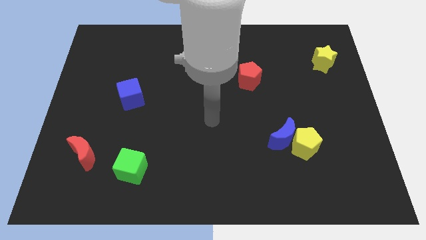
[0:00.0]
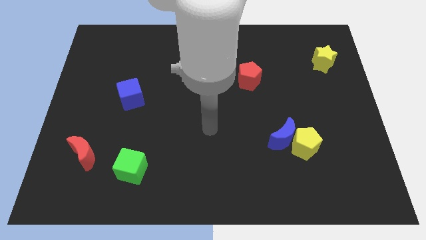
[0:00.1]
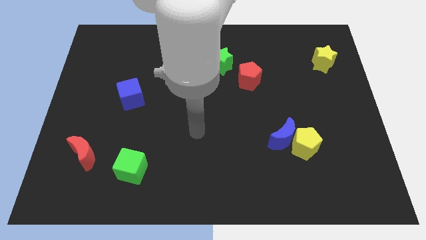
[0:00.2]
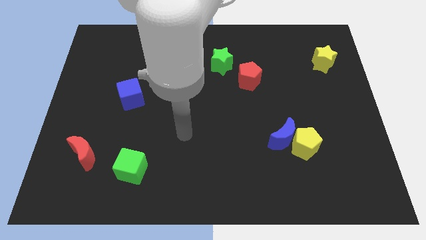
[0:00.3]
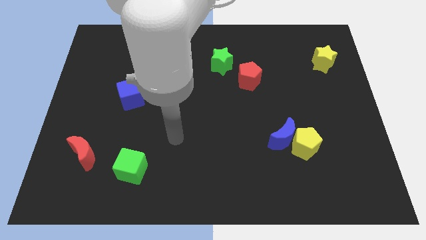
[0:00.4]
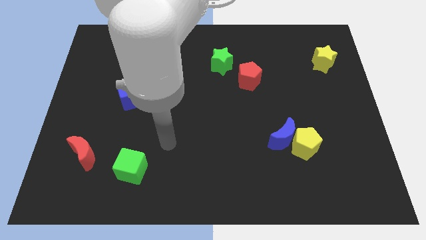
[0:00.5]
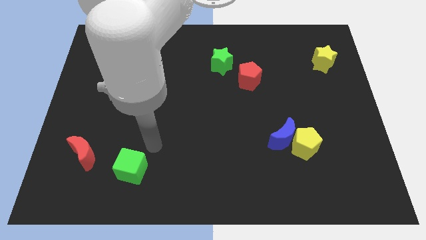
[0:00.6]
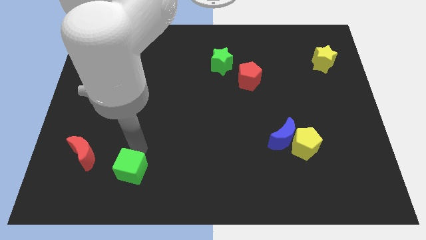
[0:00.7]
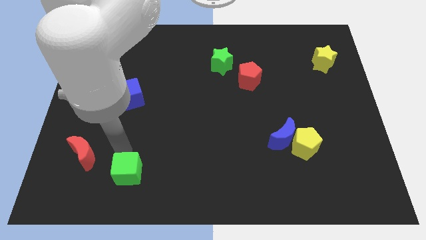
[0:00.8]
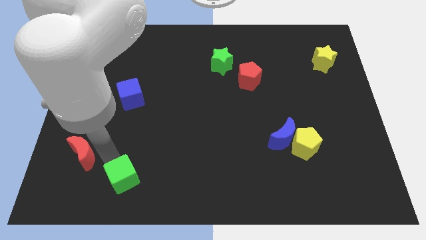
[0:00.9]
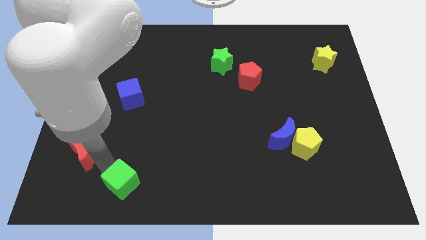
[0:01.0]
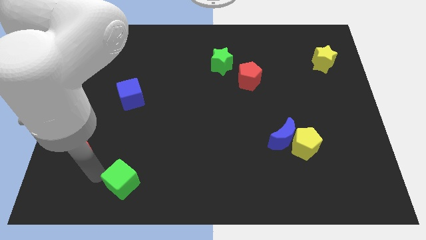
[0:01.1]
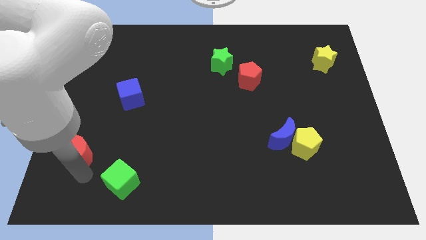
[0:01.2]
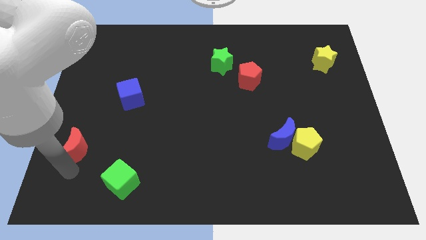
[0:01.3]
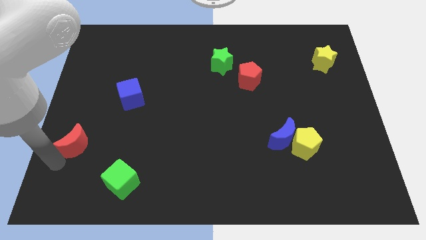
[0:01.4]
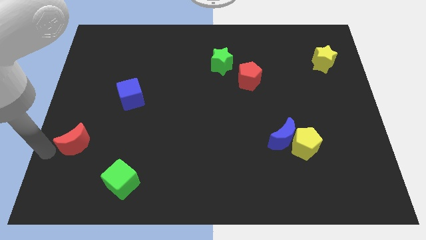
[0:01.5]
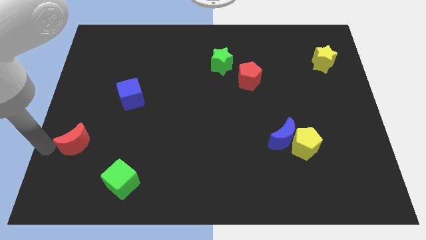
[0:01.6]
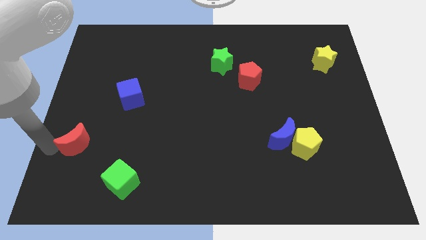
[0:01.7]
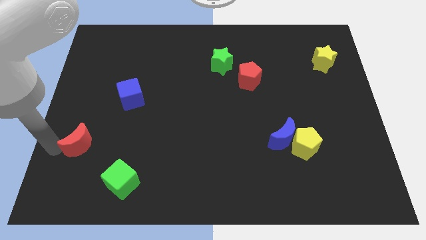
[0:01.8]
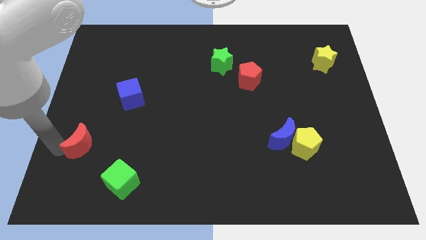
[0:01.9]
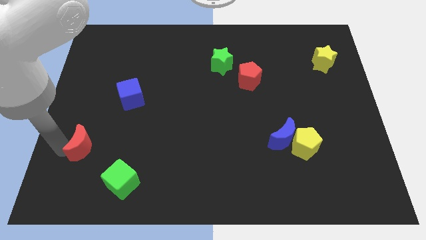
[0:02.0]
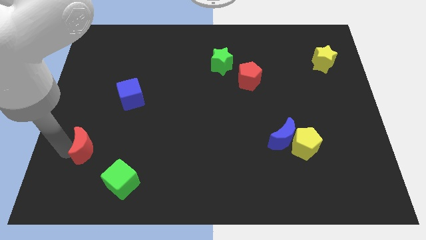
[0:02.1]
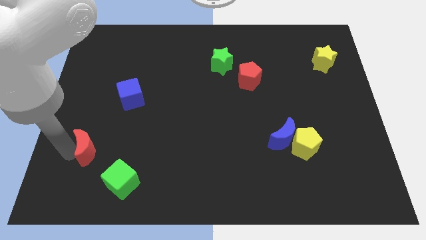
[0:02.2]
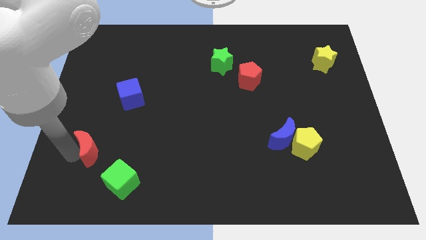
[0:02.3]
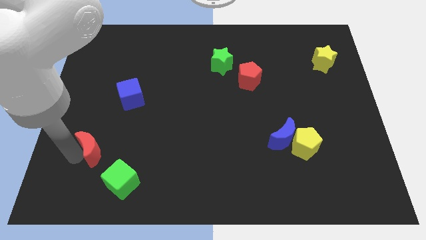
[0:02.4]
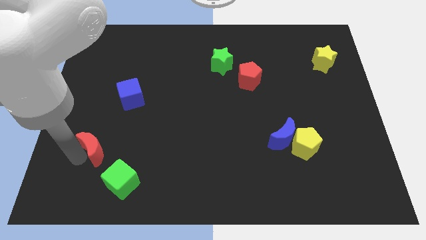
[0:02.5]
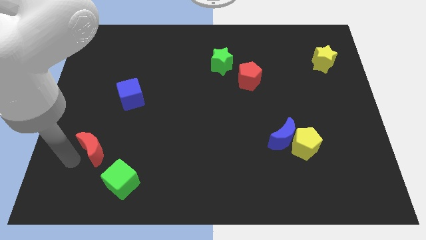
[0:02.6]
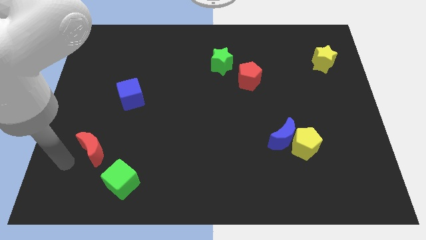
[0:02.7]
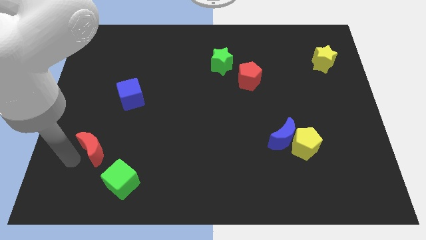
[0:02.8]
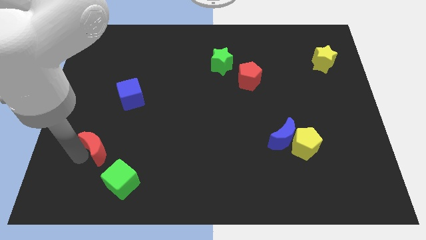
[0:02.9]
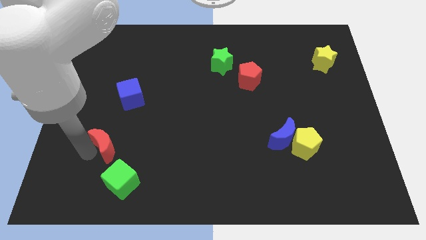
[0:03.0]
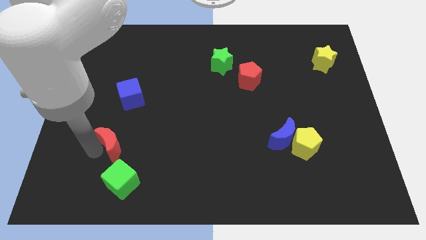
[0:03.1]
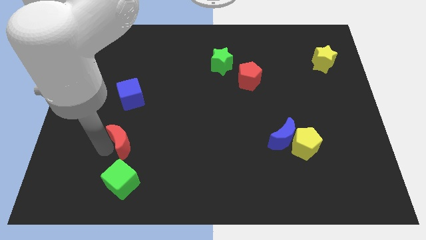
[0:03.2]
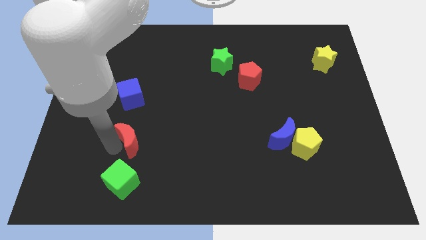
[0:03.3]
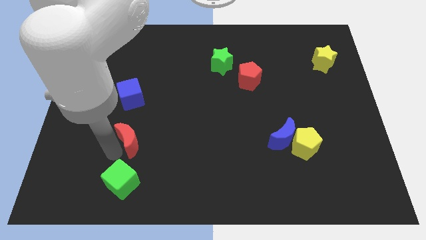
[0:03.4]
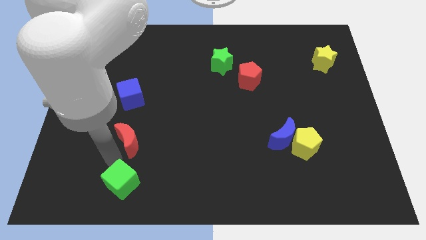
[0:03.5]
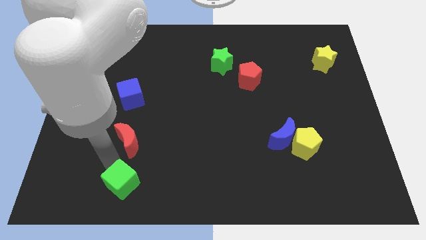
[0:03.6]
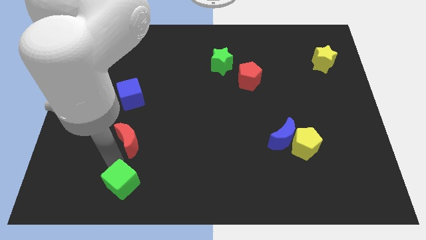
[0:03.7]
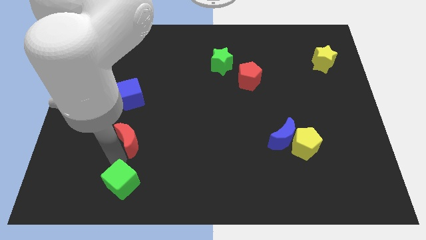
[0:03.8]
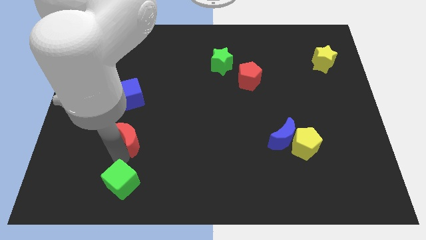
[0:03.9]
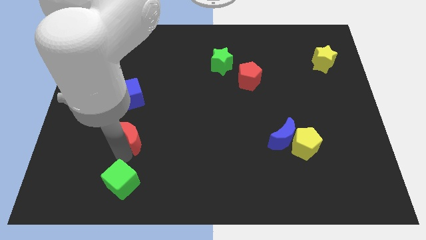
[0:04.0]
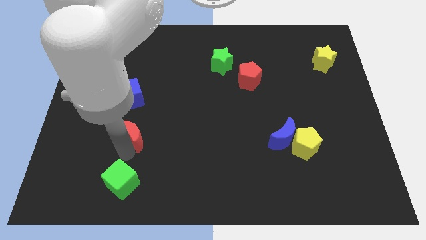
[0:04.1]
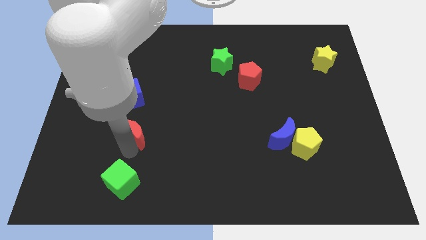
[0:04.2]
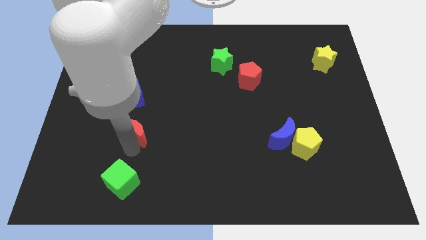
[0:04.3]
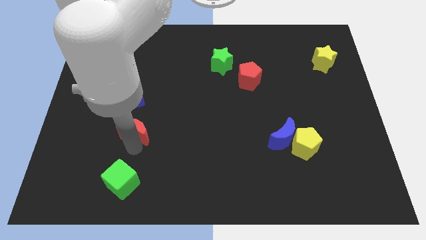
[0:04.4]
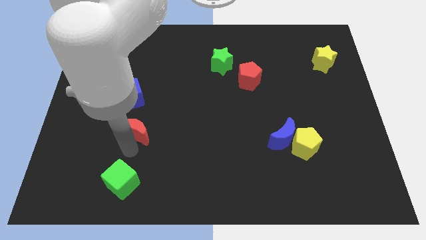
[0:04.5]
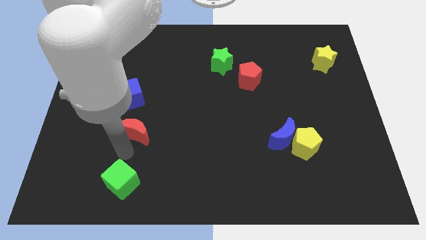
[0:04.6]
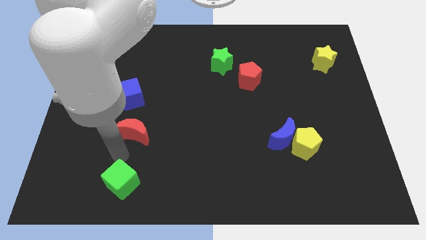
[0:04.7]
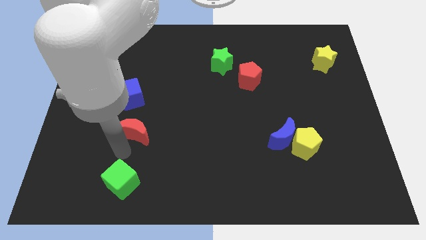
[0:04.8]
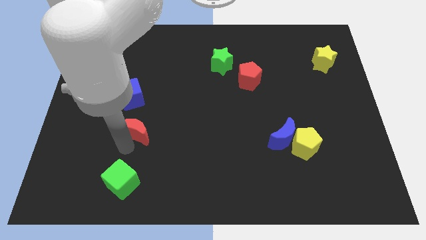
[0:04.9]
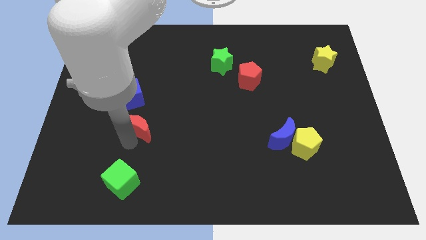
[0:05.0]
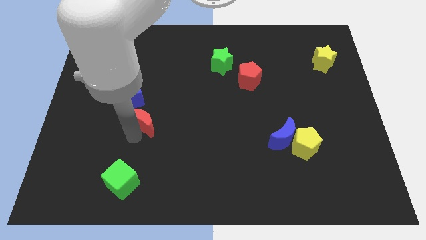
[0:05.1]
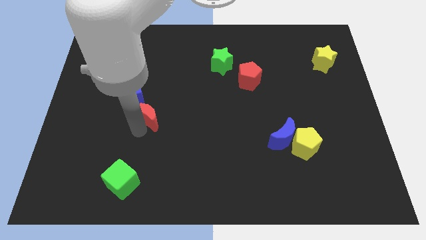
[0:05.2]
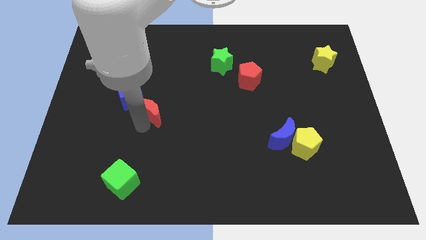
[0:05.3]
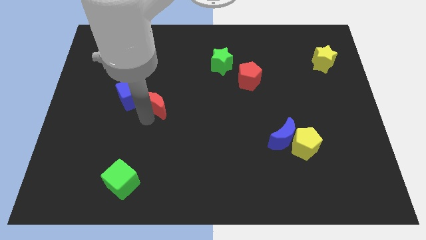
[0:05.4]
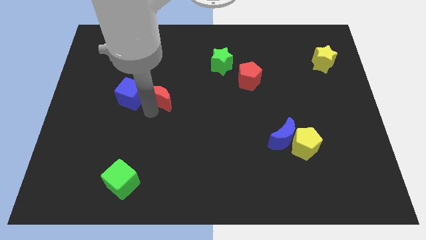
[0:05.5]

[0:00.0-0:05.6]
slide the red moon diagonally upwards and right

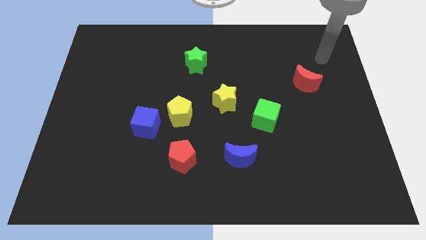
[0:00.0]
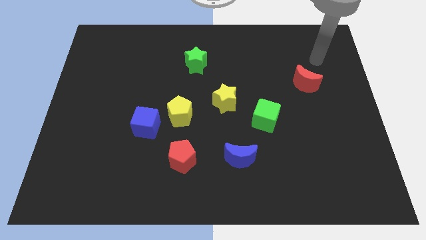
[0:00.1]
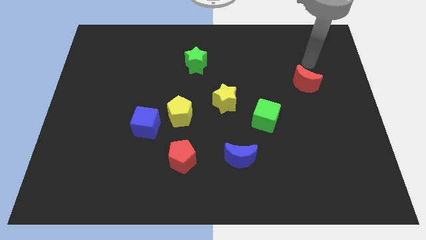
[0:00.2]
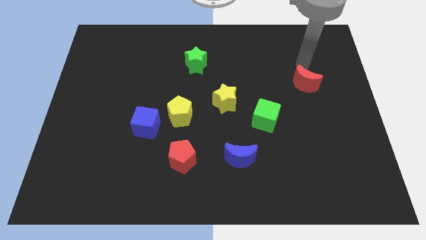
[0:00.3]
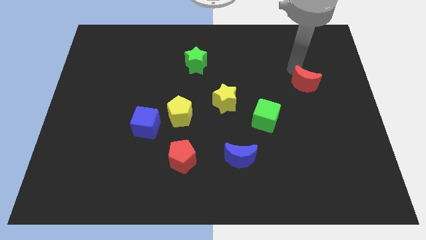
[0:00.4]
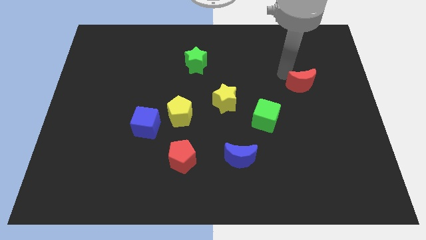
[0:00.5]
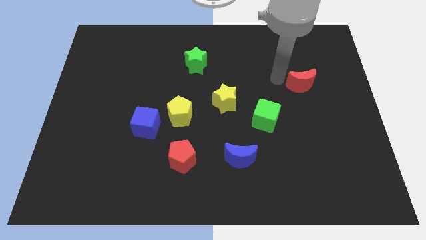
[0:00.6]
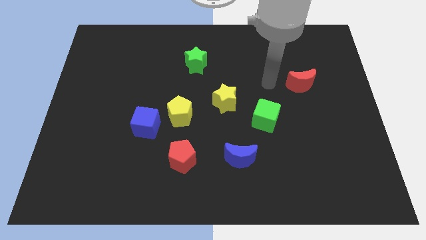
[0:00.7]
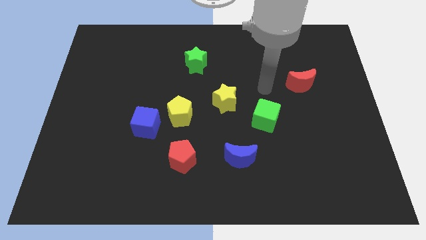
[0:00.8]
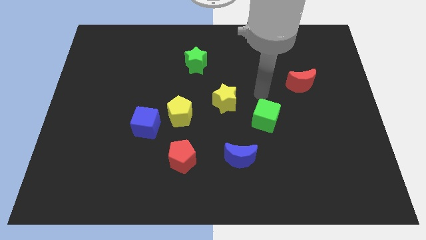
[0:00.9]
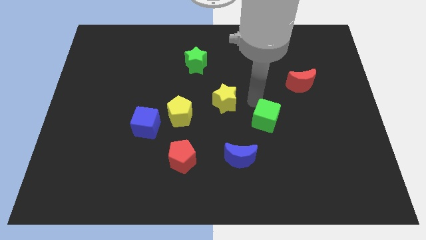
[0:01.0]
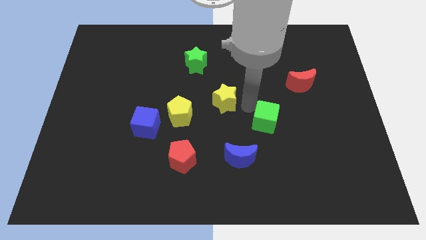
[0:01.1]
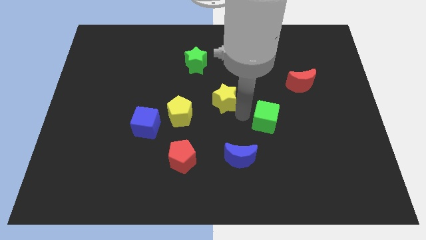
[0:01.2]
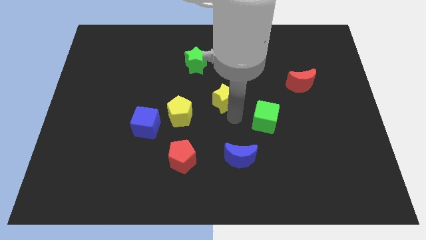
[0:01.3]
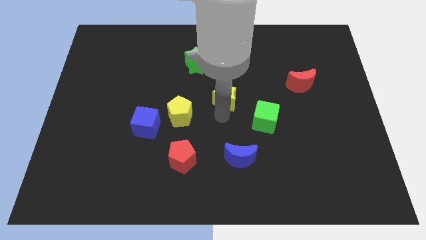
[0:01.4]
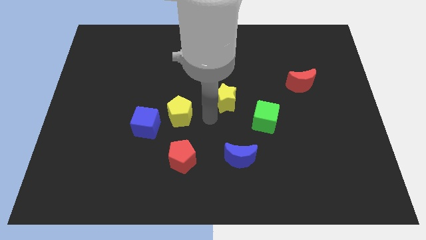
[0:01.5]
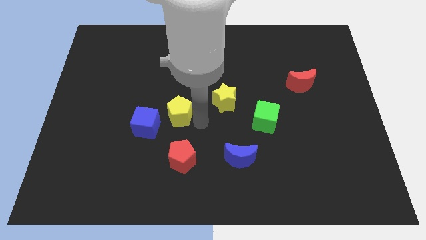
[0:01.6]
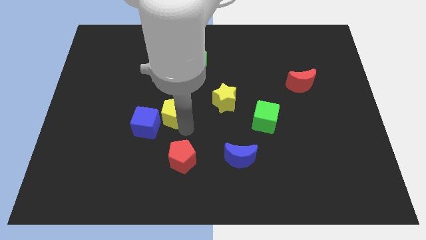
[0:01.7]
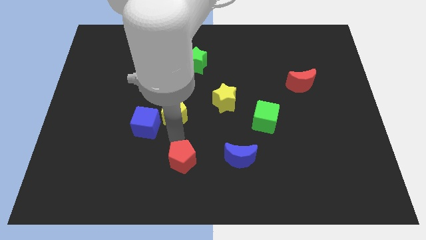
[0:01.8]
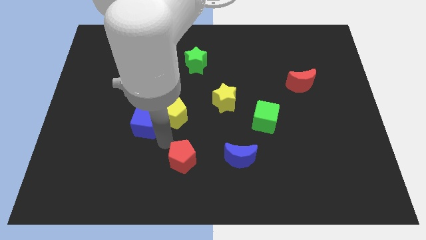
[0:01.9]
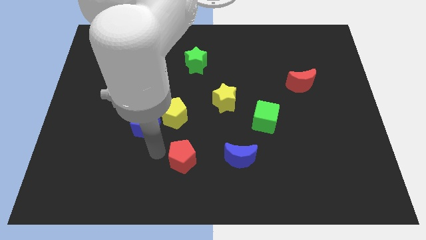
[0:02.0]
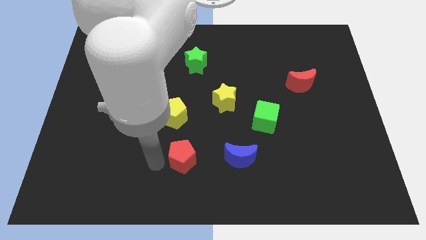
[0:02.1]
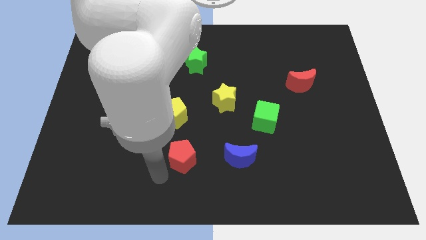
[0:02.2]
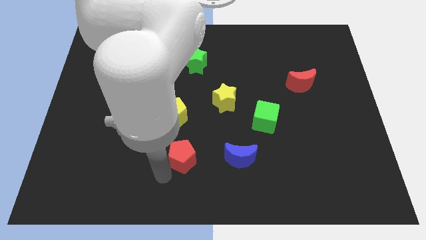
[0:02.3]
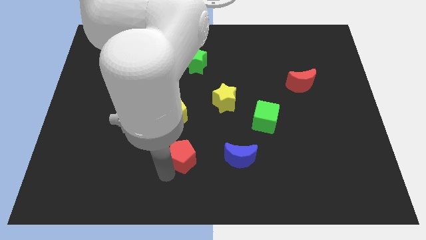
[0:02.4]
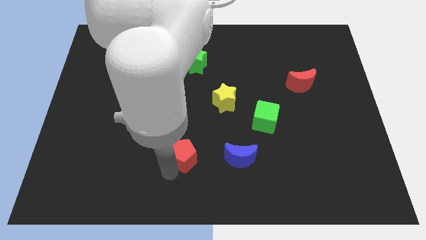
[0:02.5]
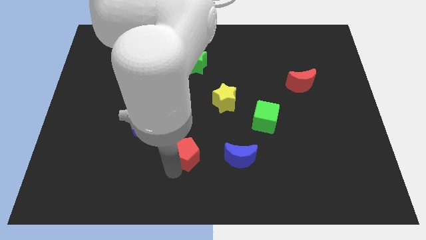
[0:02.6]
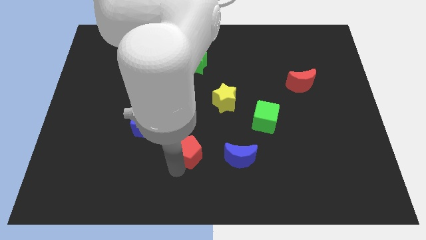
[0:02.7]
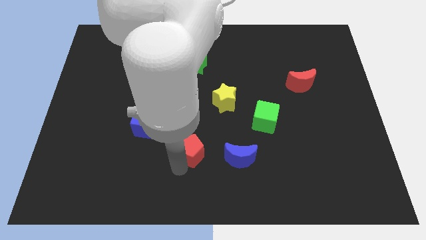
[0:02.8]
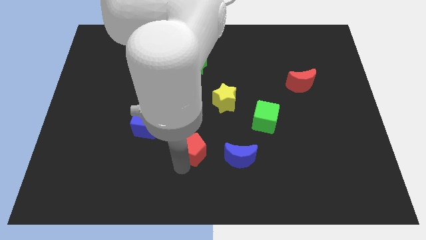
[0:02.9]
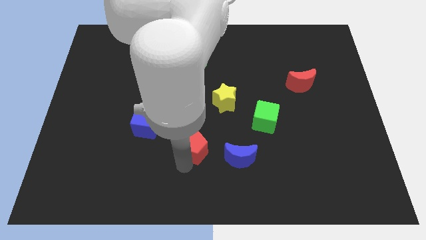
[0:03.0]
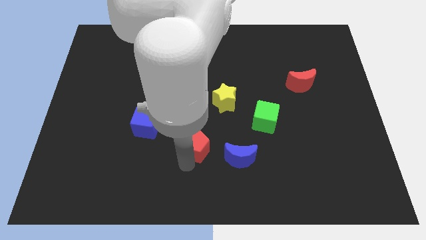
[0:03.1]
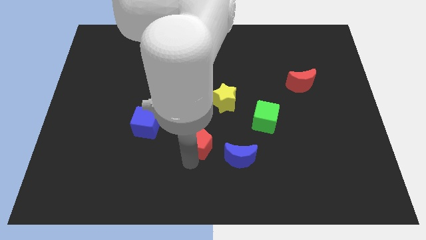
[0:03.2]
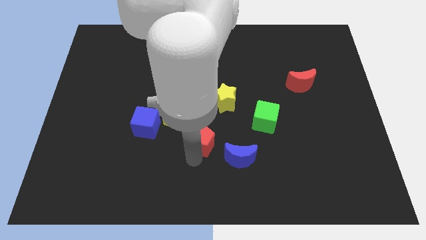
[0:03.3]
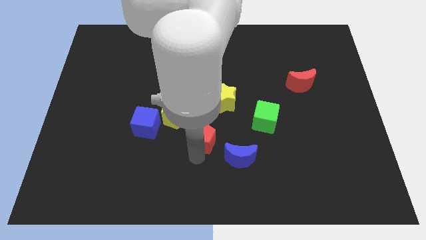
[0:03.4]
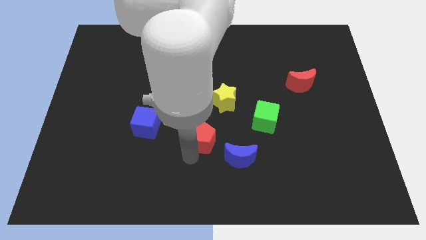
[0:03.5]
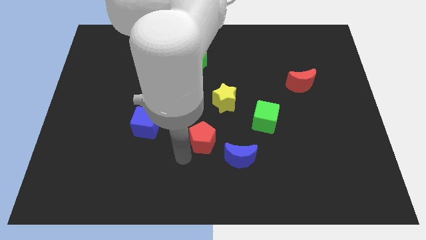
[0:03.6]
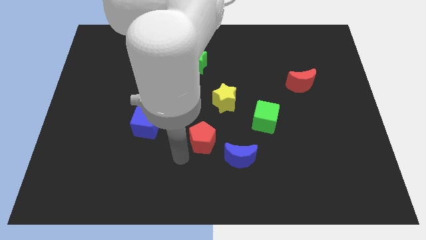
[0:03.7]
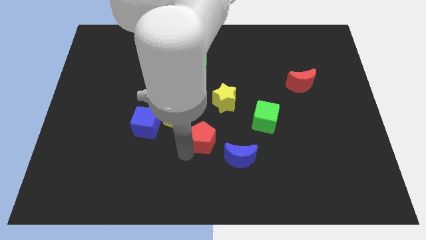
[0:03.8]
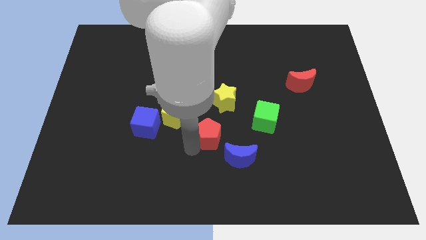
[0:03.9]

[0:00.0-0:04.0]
move the red pentagon upwards and to the right a bit
